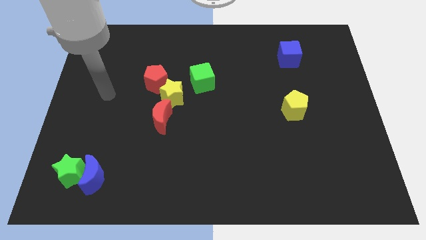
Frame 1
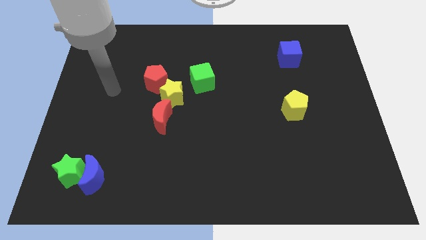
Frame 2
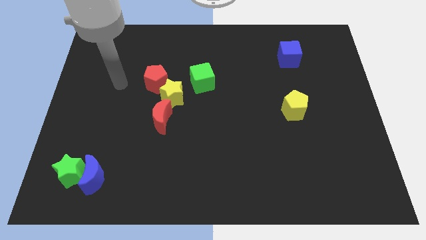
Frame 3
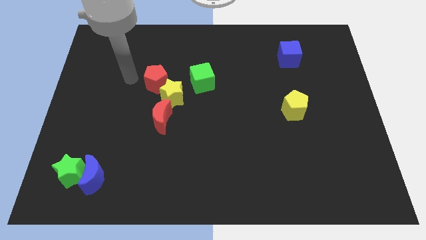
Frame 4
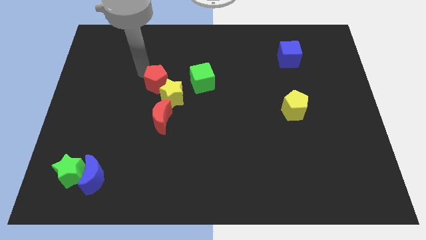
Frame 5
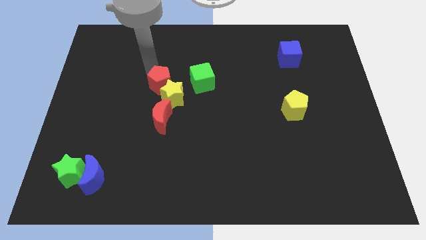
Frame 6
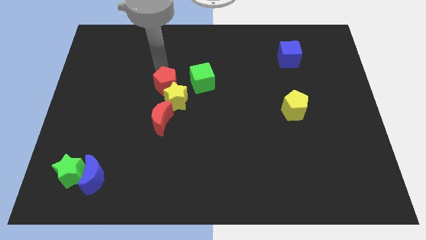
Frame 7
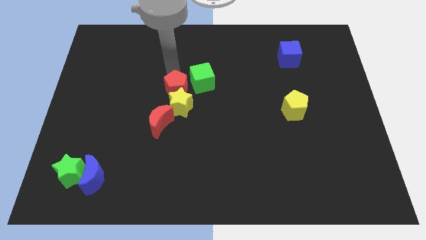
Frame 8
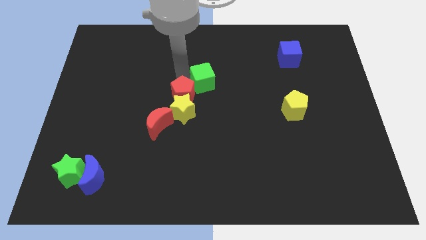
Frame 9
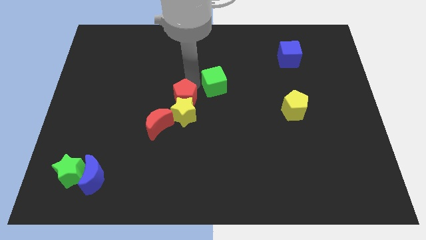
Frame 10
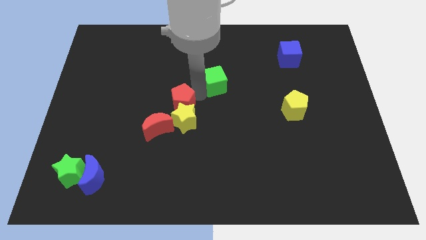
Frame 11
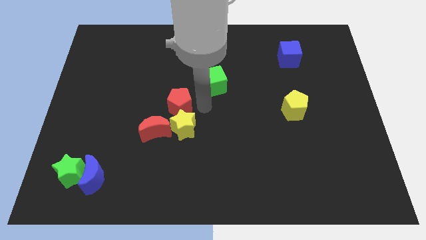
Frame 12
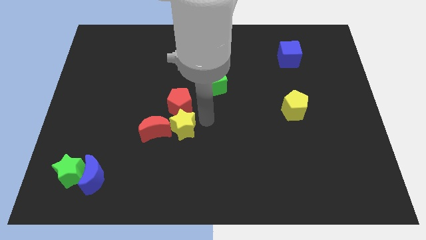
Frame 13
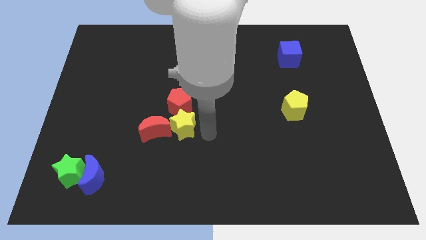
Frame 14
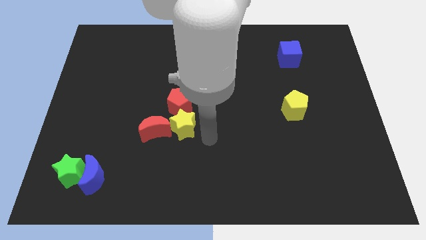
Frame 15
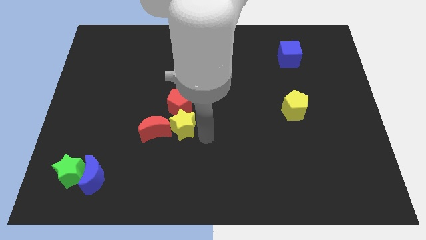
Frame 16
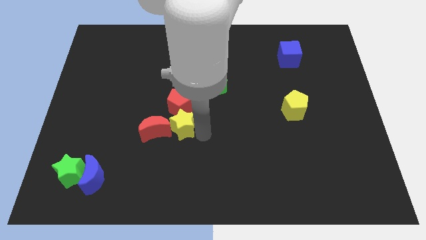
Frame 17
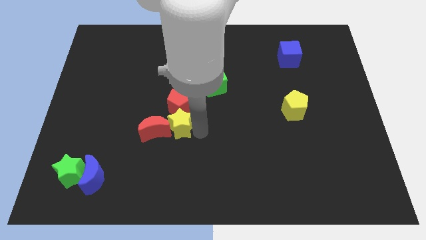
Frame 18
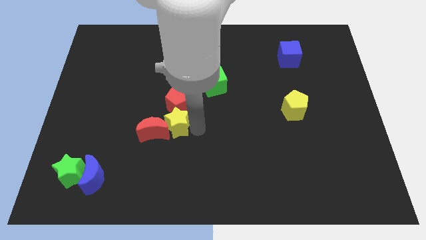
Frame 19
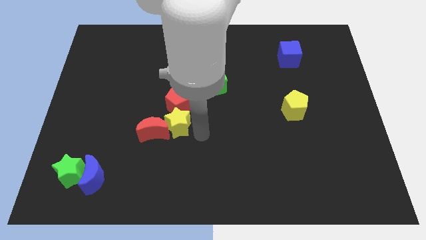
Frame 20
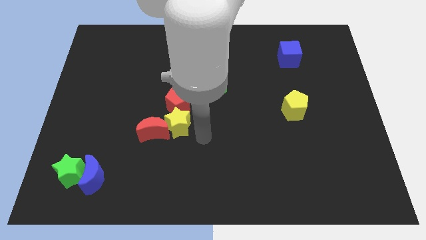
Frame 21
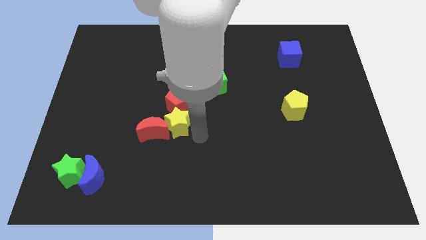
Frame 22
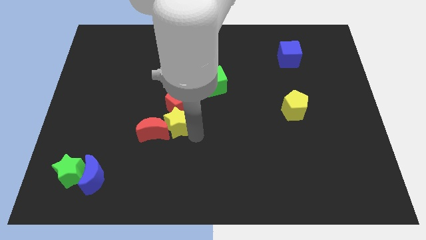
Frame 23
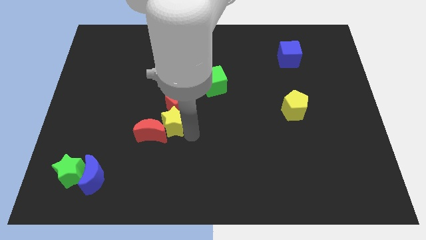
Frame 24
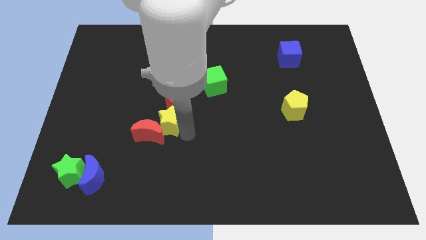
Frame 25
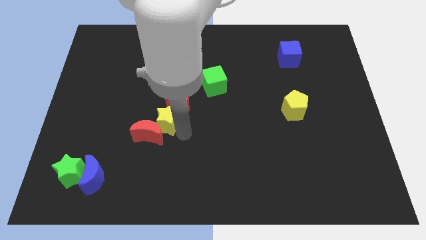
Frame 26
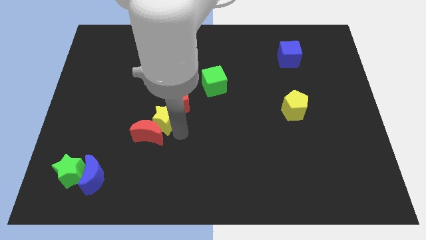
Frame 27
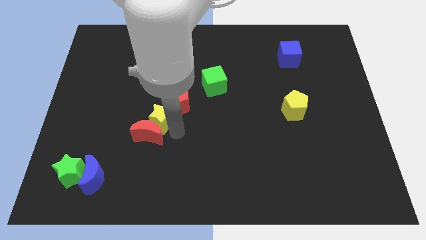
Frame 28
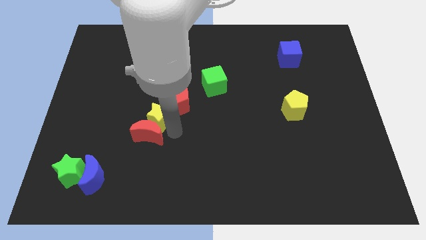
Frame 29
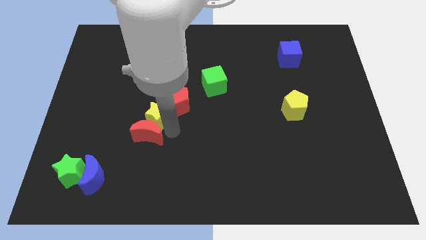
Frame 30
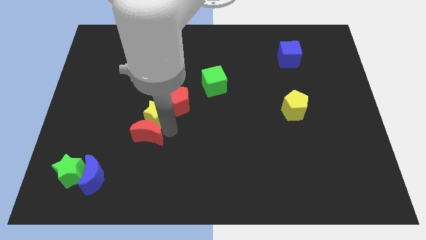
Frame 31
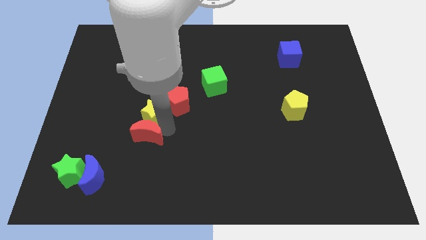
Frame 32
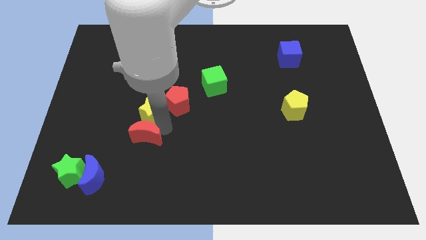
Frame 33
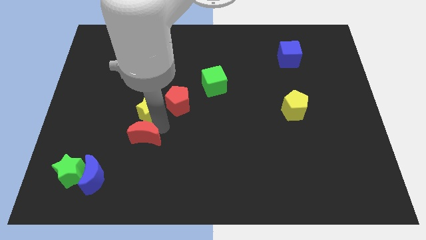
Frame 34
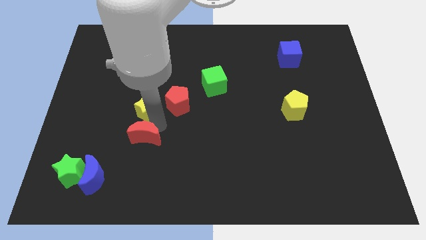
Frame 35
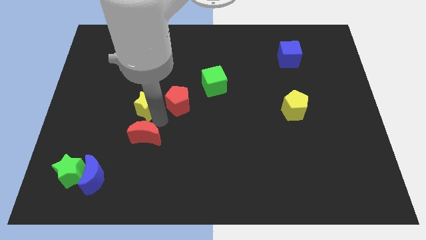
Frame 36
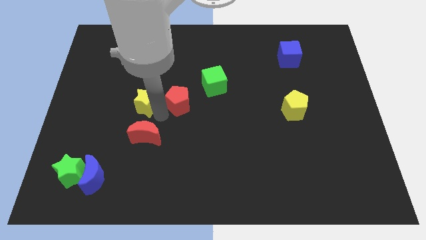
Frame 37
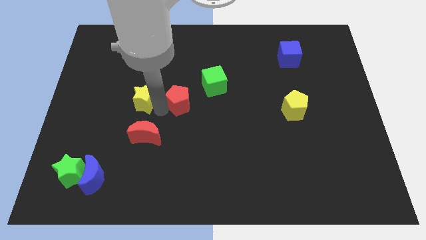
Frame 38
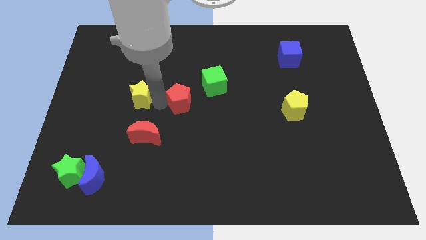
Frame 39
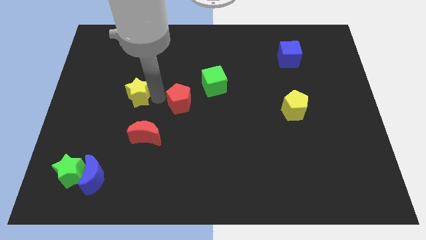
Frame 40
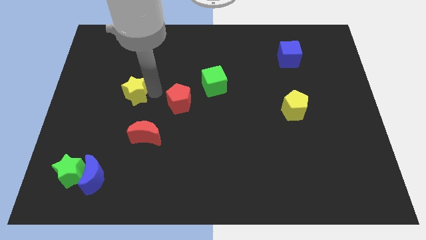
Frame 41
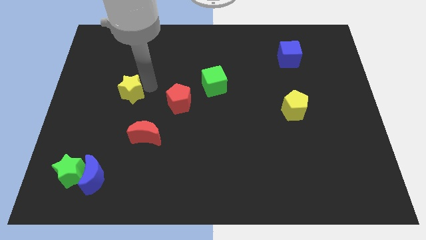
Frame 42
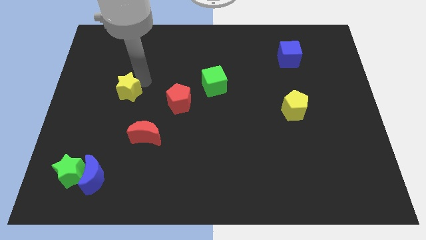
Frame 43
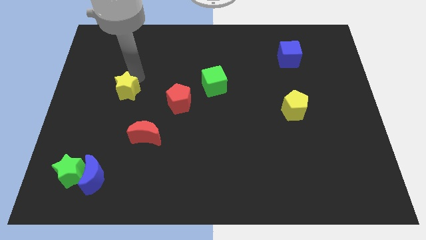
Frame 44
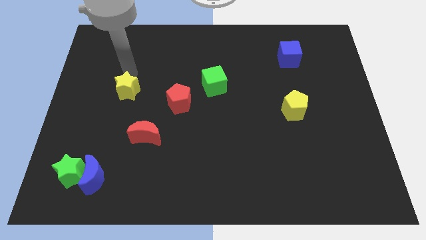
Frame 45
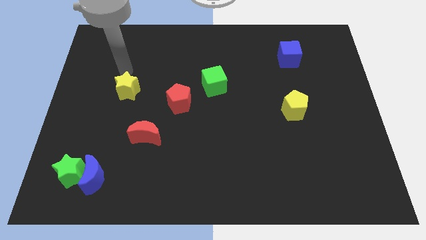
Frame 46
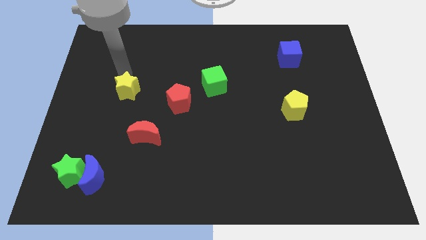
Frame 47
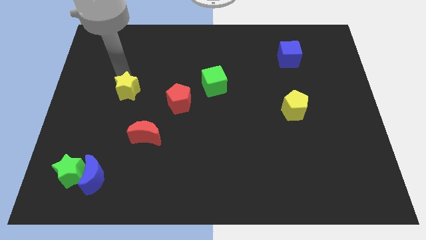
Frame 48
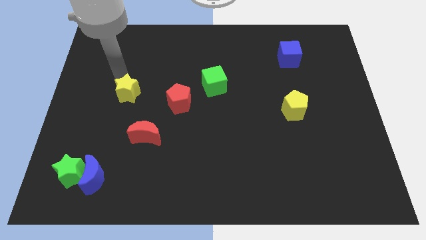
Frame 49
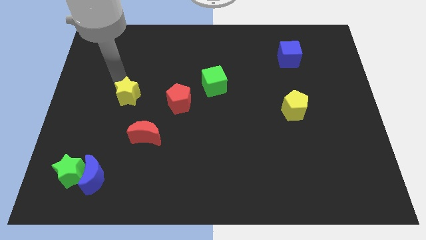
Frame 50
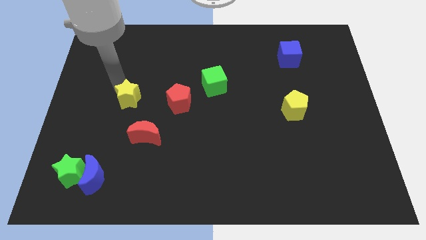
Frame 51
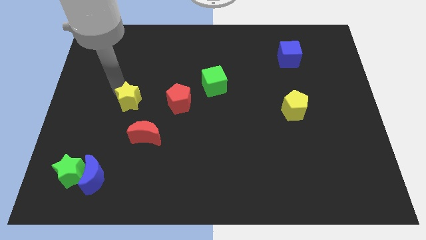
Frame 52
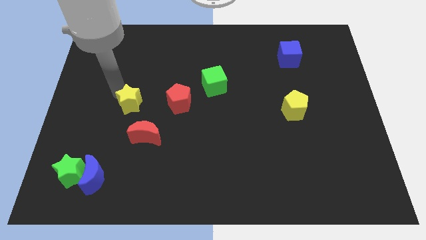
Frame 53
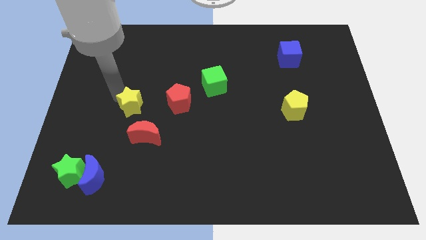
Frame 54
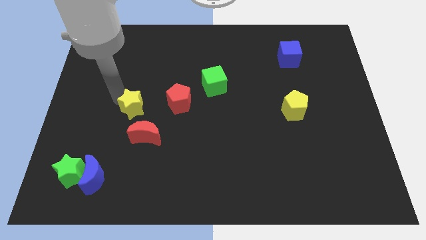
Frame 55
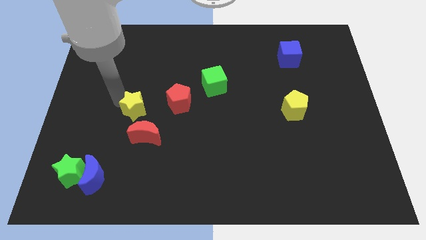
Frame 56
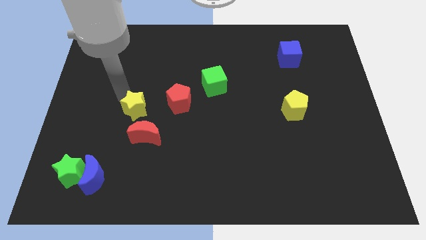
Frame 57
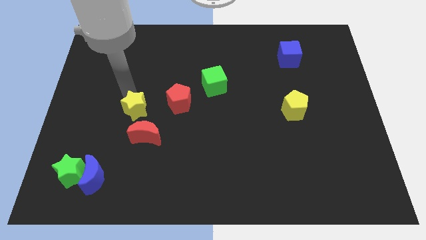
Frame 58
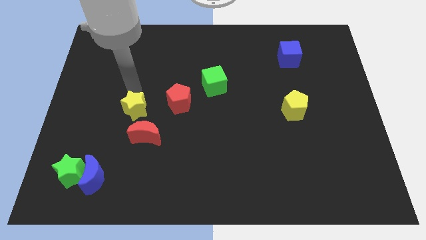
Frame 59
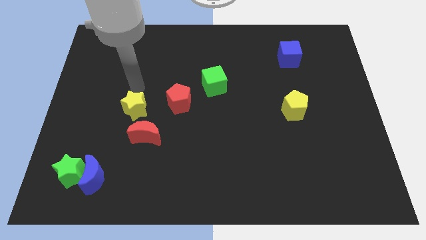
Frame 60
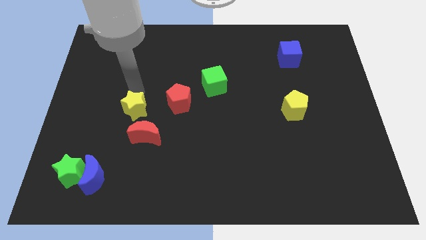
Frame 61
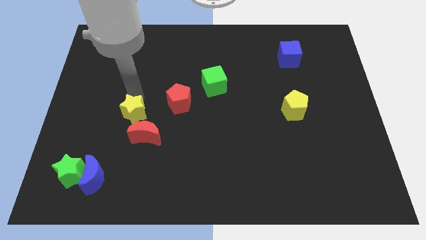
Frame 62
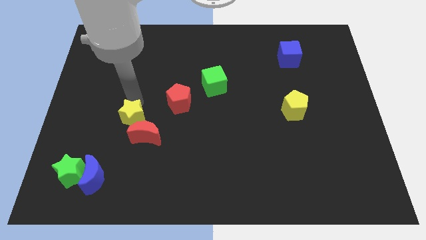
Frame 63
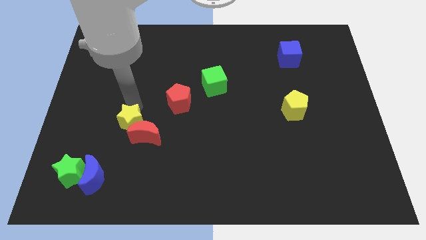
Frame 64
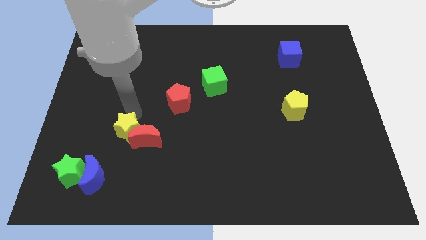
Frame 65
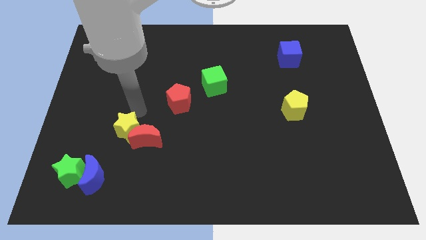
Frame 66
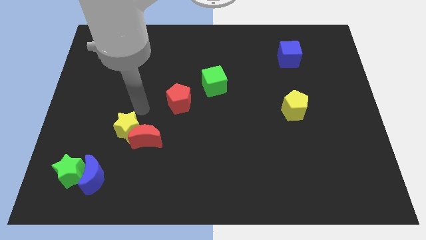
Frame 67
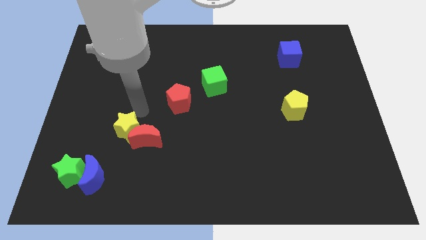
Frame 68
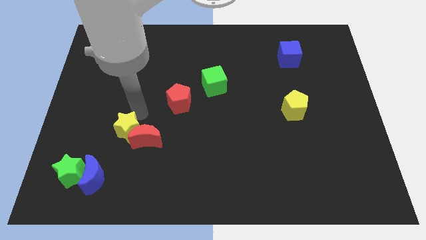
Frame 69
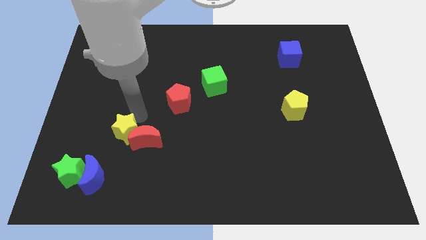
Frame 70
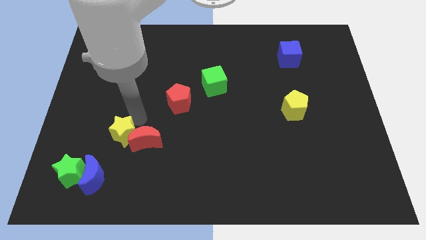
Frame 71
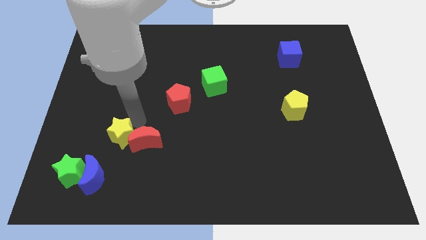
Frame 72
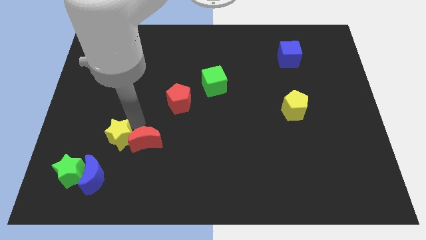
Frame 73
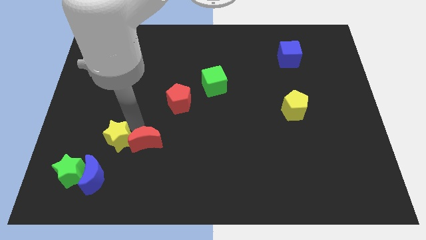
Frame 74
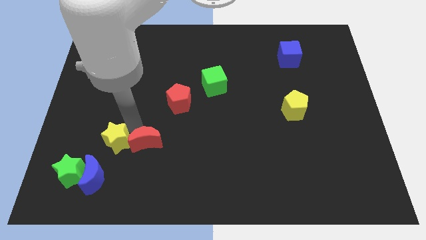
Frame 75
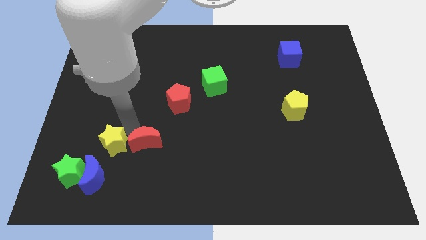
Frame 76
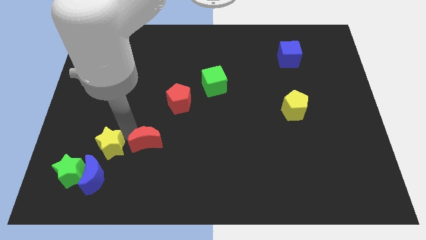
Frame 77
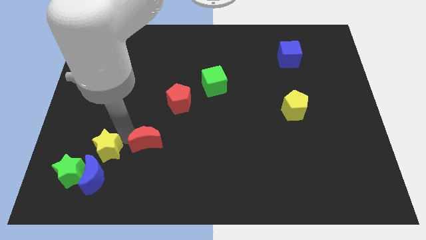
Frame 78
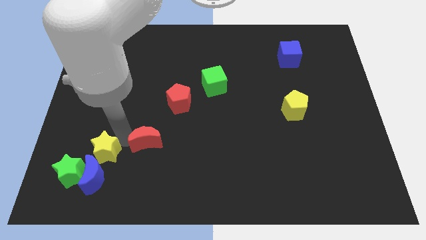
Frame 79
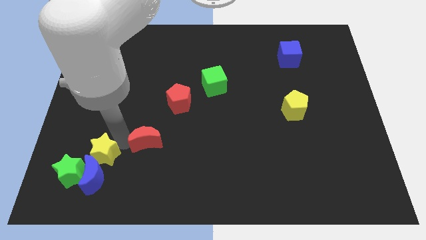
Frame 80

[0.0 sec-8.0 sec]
push the yellow star towards the blue moon
